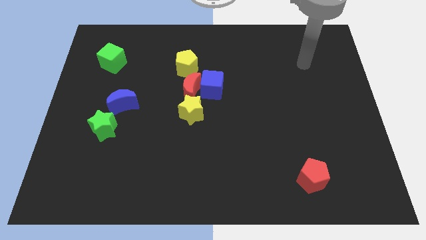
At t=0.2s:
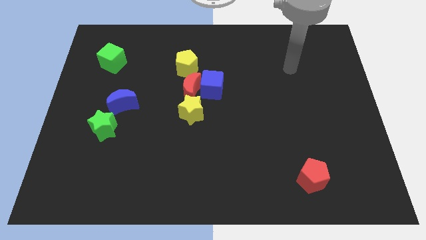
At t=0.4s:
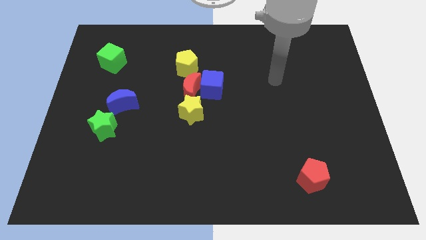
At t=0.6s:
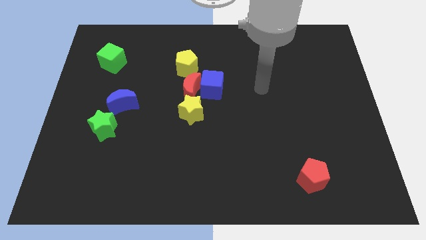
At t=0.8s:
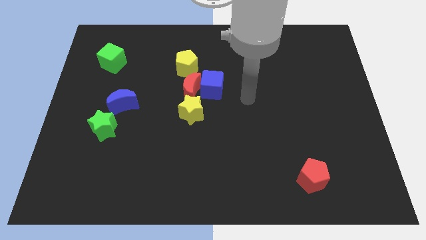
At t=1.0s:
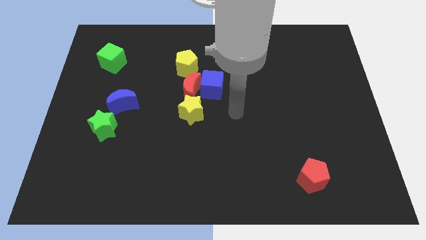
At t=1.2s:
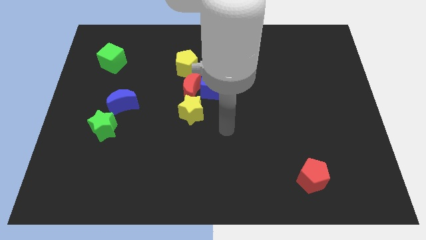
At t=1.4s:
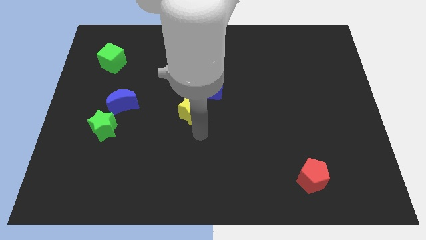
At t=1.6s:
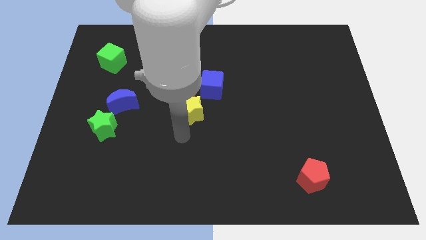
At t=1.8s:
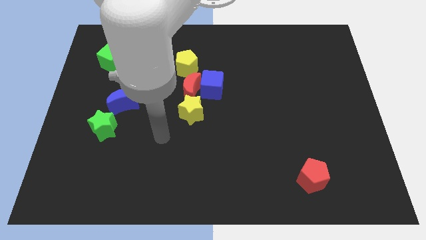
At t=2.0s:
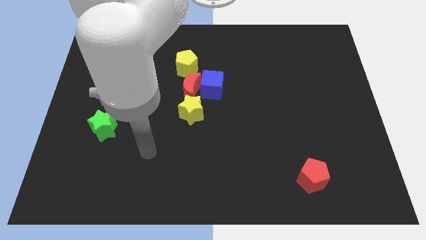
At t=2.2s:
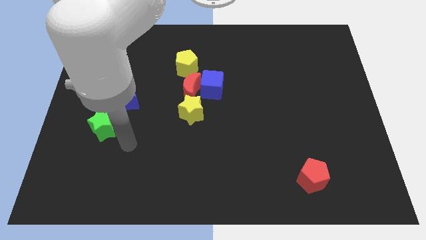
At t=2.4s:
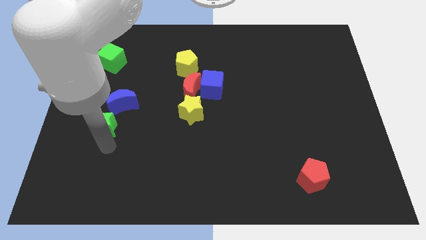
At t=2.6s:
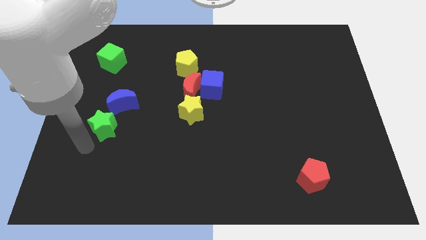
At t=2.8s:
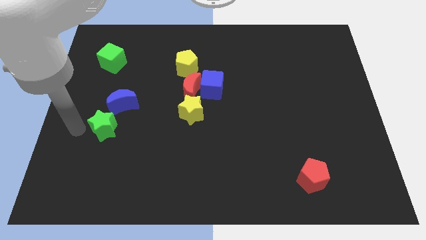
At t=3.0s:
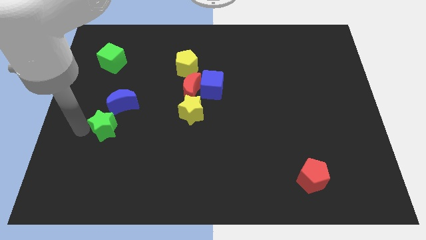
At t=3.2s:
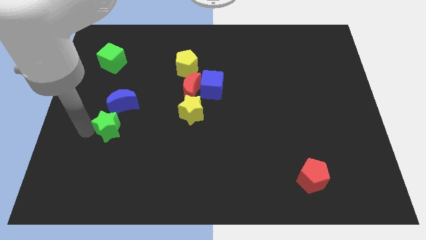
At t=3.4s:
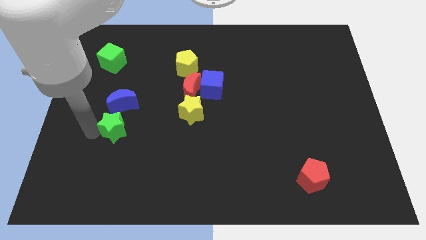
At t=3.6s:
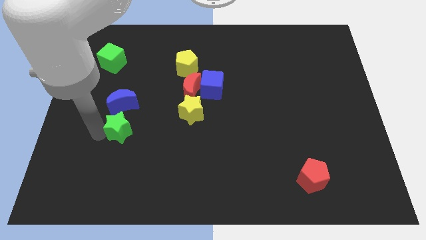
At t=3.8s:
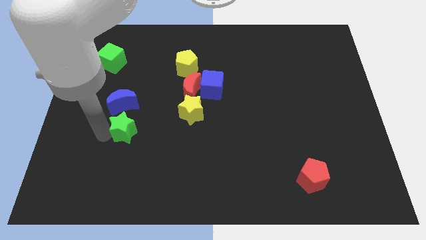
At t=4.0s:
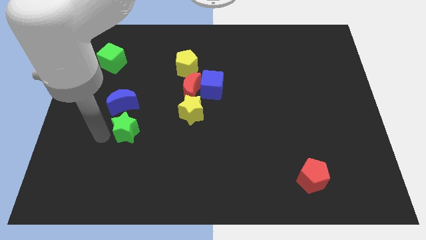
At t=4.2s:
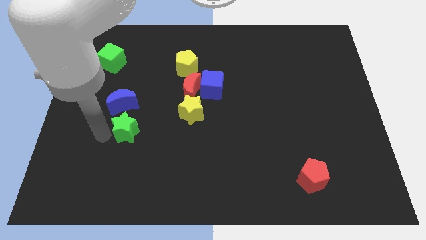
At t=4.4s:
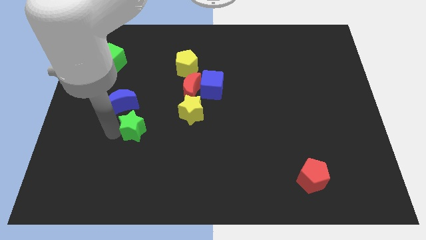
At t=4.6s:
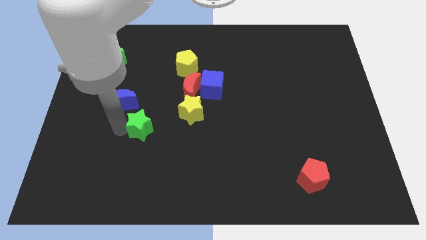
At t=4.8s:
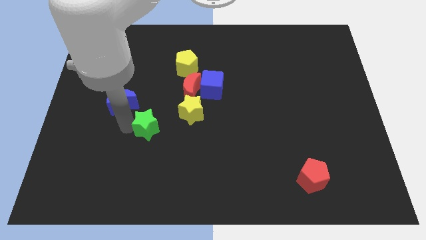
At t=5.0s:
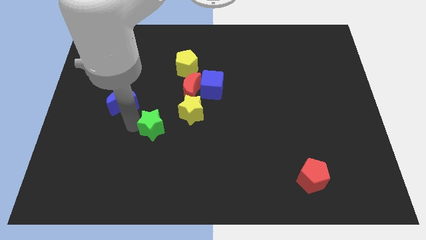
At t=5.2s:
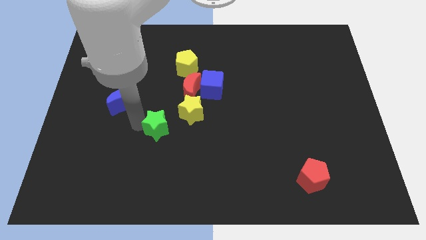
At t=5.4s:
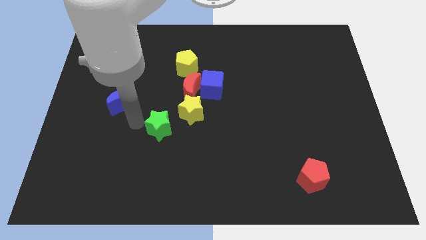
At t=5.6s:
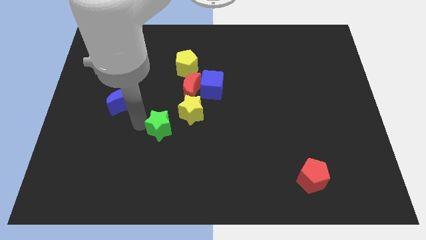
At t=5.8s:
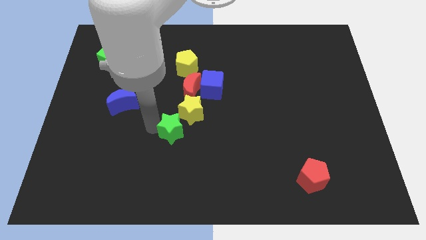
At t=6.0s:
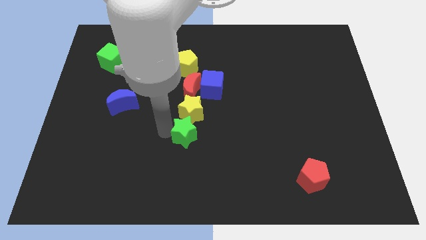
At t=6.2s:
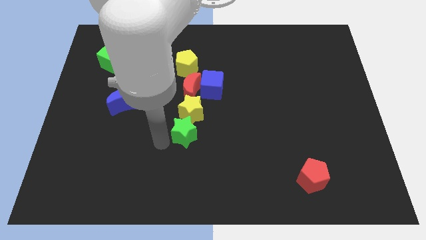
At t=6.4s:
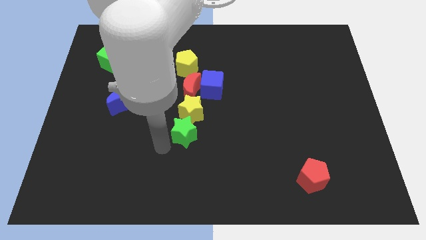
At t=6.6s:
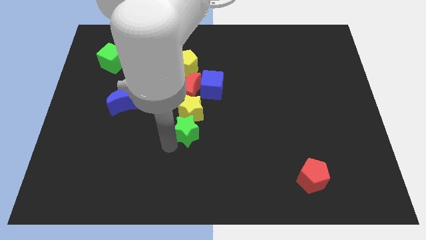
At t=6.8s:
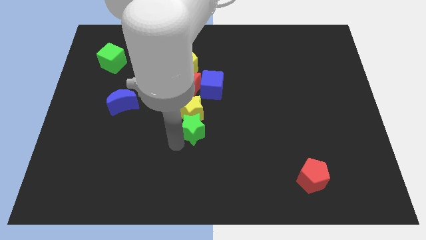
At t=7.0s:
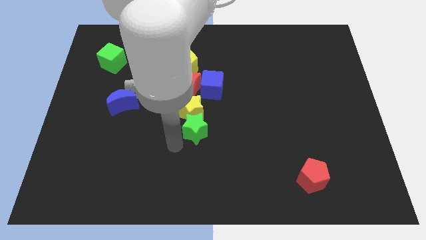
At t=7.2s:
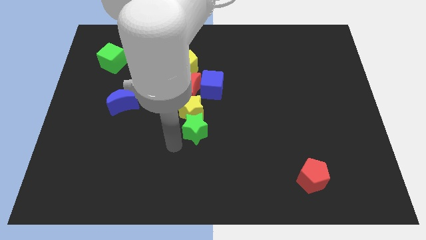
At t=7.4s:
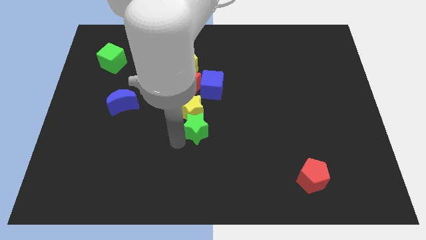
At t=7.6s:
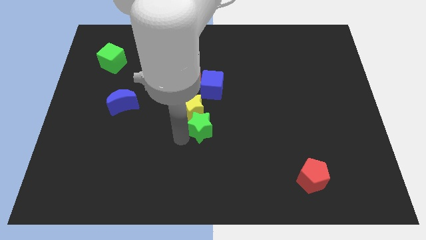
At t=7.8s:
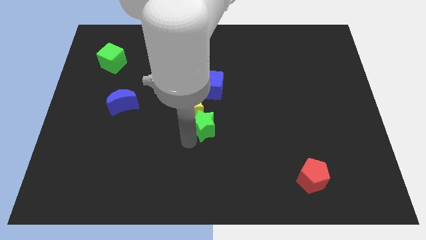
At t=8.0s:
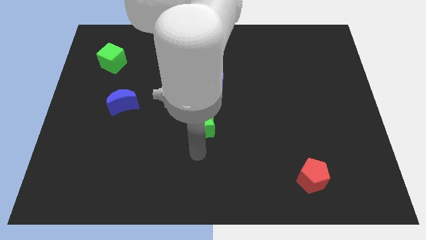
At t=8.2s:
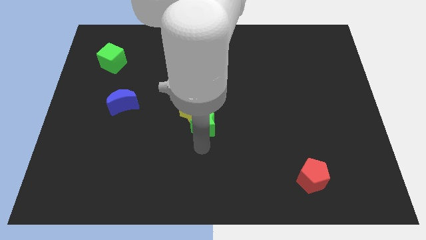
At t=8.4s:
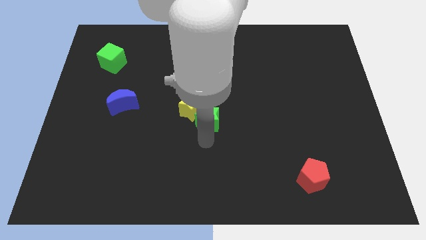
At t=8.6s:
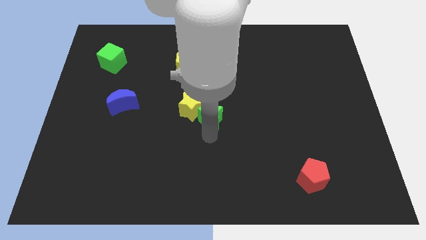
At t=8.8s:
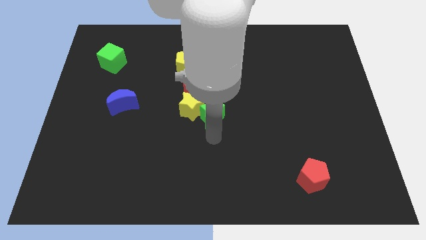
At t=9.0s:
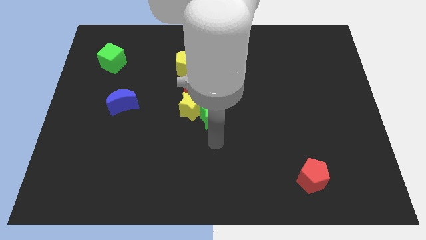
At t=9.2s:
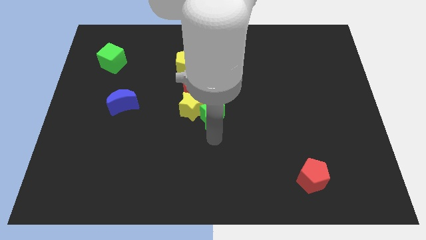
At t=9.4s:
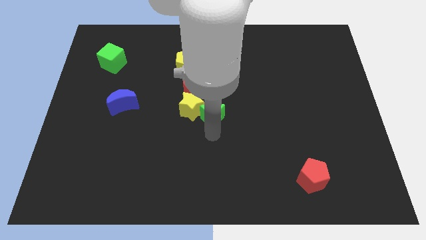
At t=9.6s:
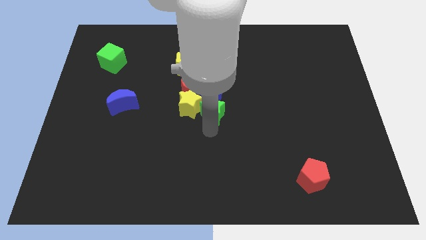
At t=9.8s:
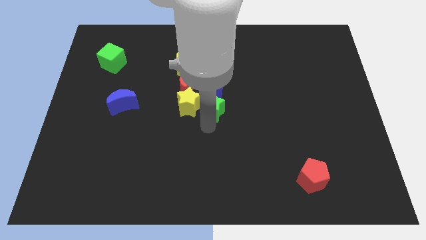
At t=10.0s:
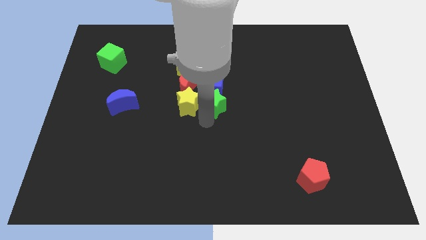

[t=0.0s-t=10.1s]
slide the green star towards the blue cube

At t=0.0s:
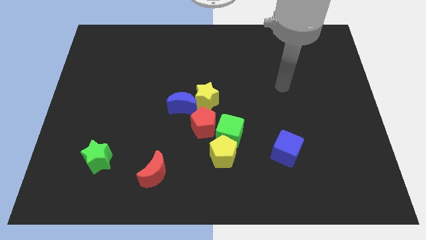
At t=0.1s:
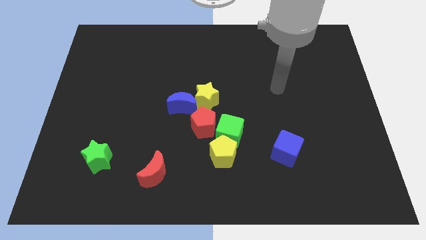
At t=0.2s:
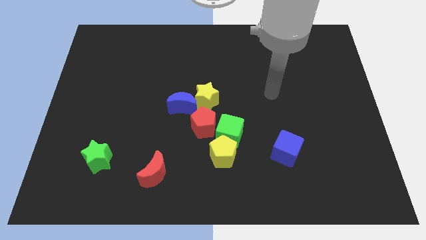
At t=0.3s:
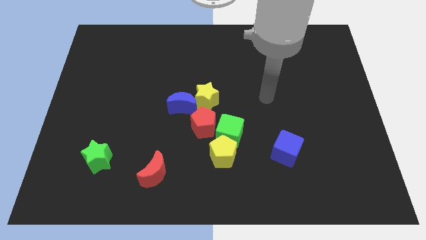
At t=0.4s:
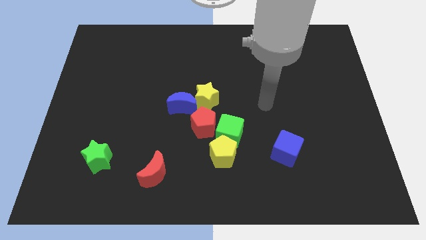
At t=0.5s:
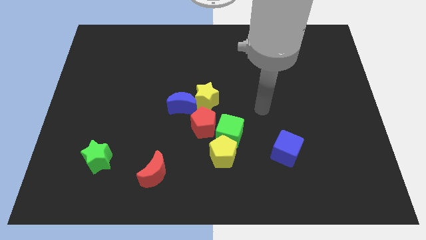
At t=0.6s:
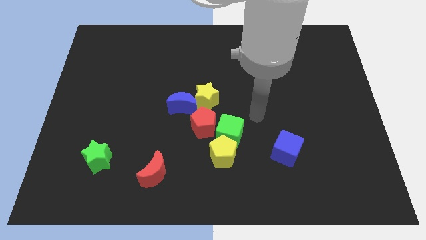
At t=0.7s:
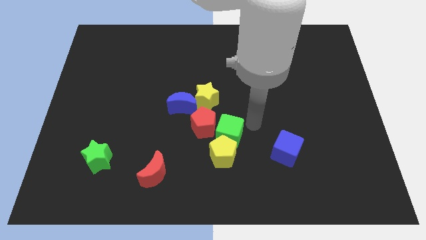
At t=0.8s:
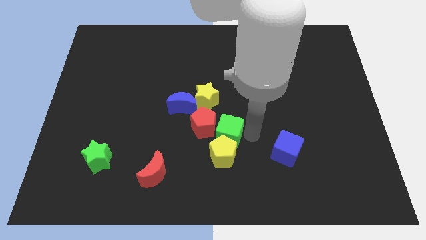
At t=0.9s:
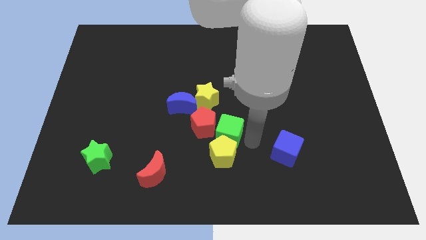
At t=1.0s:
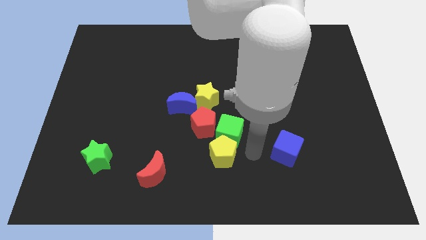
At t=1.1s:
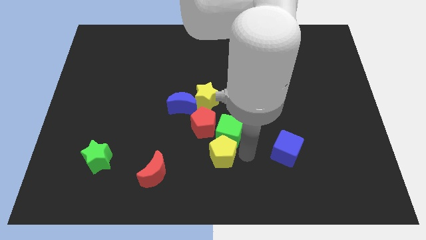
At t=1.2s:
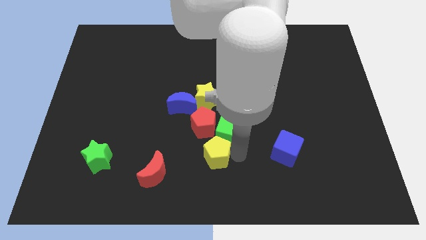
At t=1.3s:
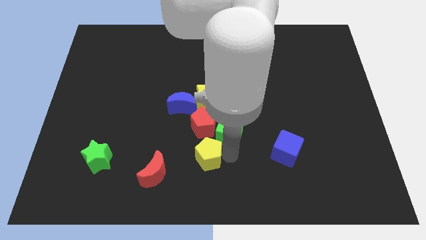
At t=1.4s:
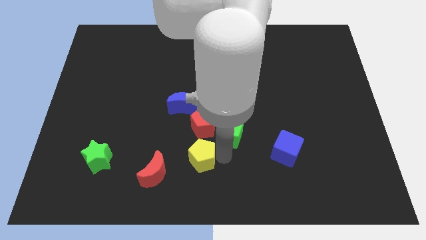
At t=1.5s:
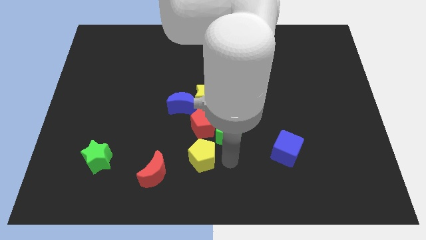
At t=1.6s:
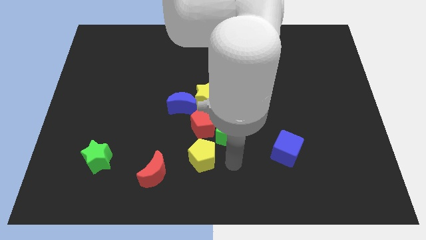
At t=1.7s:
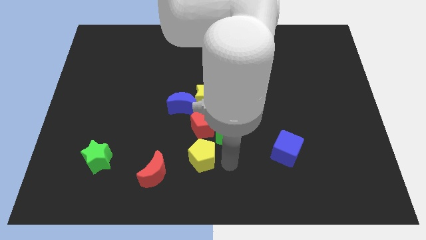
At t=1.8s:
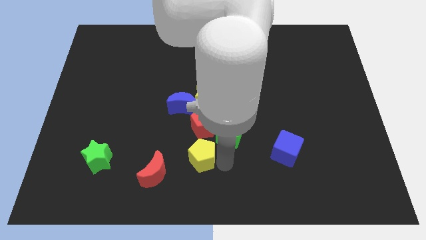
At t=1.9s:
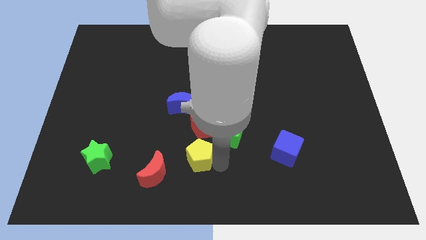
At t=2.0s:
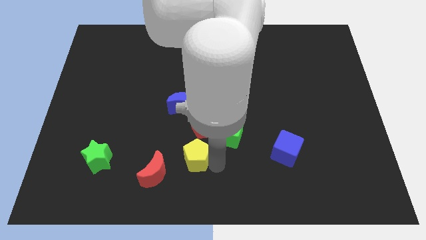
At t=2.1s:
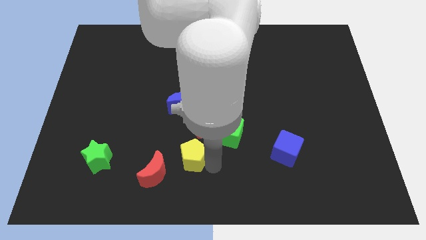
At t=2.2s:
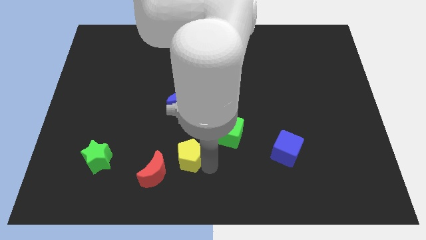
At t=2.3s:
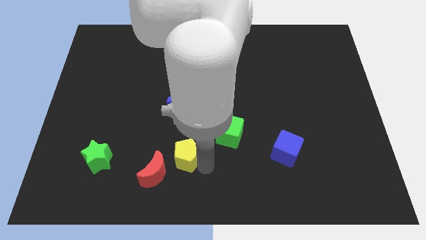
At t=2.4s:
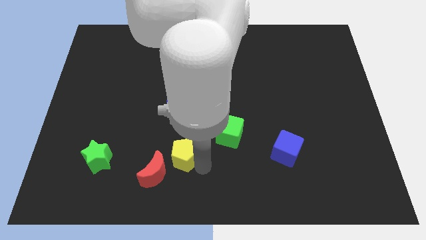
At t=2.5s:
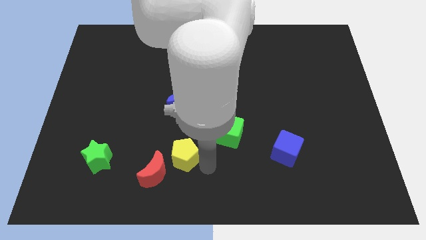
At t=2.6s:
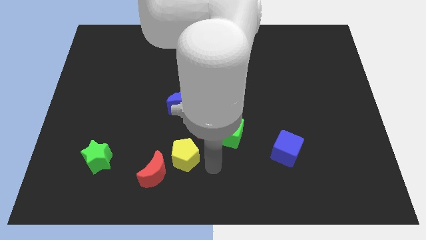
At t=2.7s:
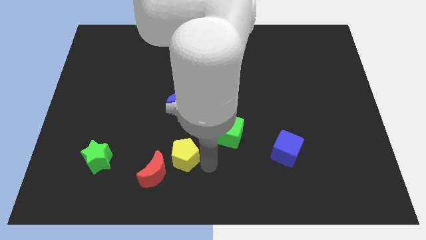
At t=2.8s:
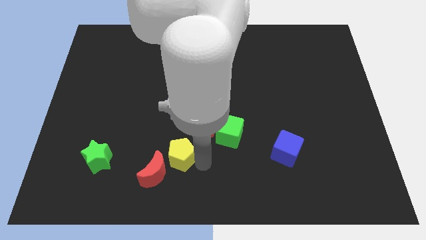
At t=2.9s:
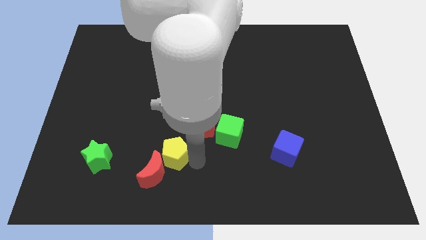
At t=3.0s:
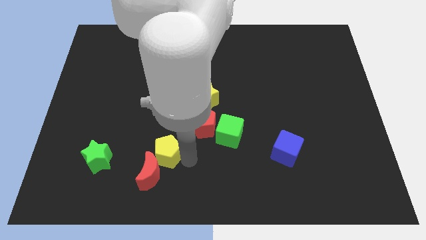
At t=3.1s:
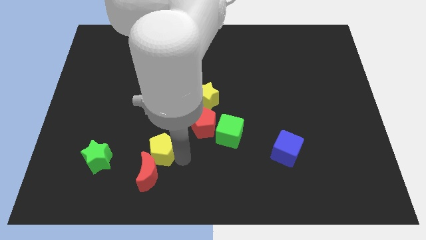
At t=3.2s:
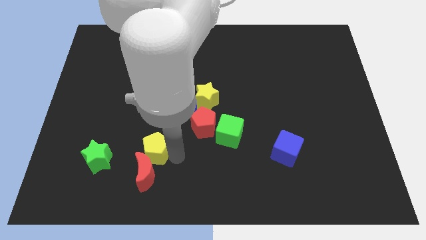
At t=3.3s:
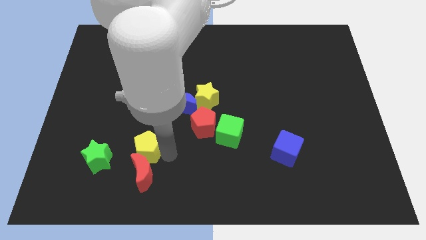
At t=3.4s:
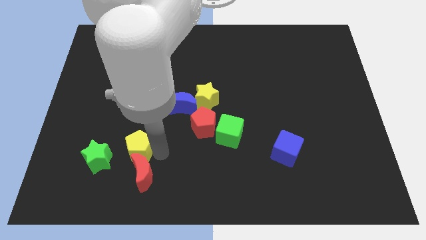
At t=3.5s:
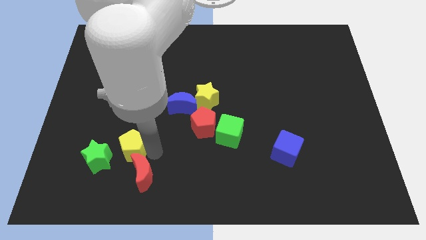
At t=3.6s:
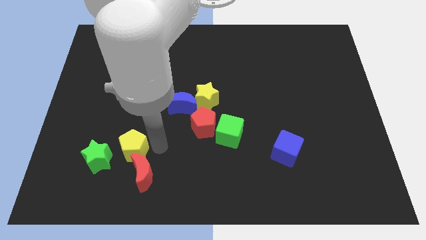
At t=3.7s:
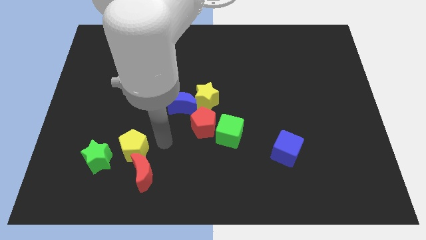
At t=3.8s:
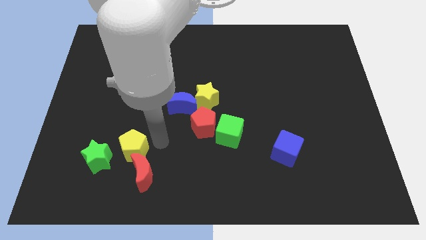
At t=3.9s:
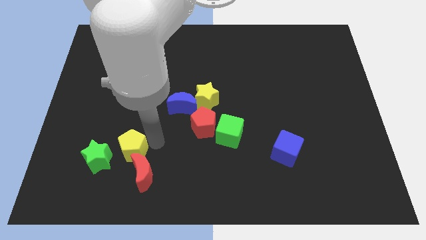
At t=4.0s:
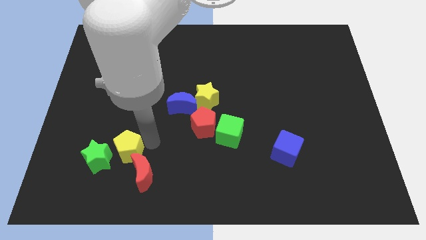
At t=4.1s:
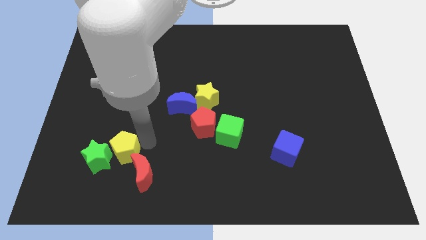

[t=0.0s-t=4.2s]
push the yellow pentagon towards the green star
